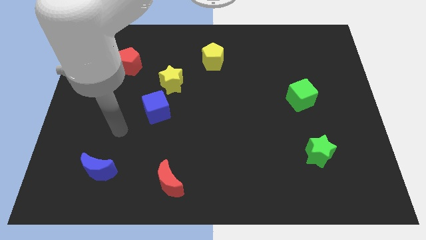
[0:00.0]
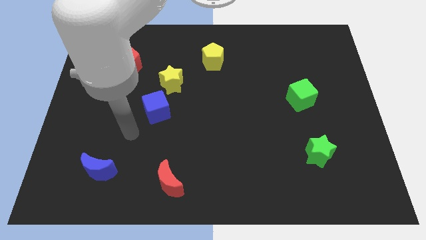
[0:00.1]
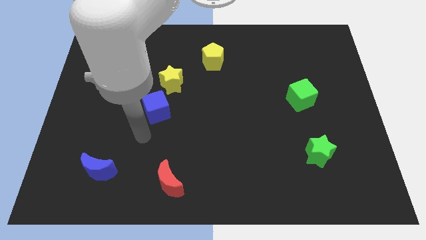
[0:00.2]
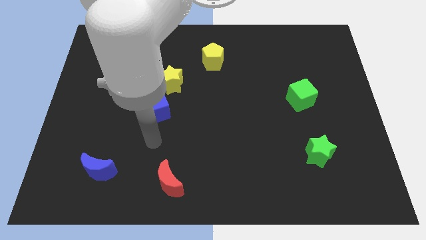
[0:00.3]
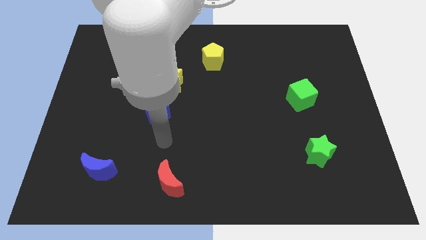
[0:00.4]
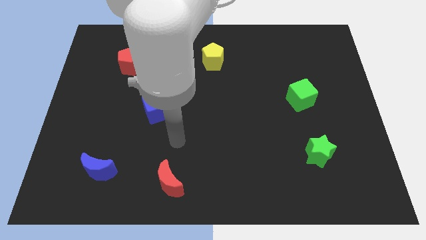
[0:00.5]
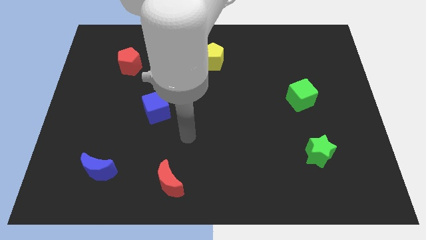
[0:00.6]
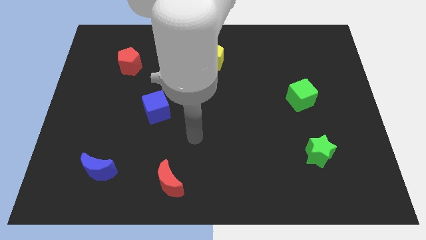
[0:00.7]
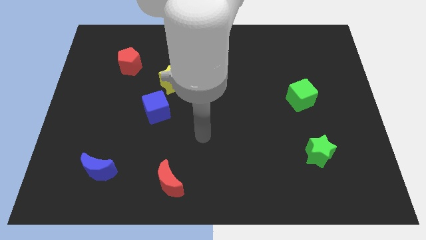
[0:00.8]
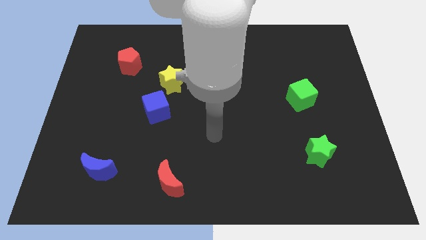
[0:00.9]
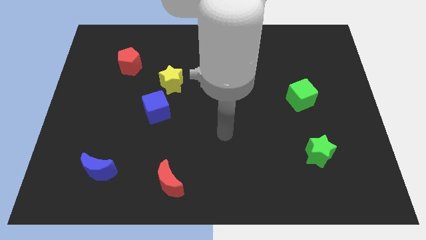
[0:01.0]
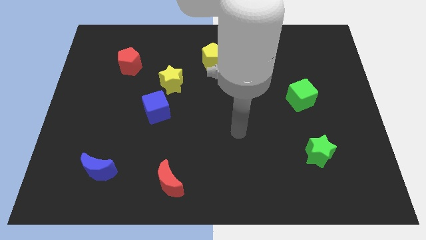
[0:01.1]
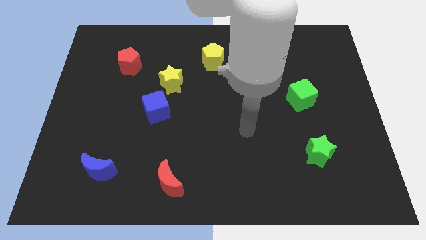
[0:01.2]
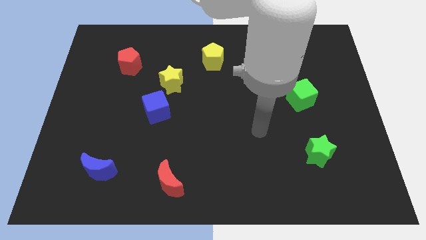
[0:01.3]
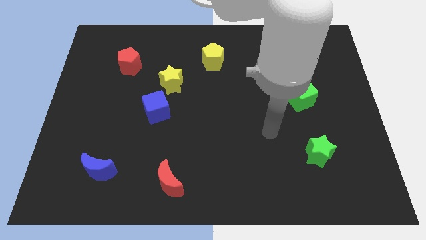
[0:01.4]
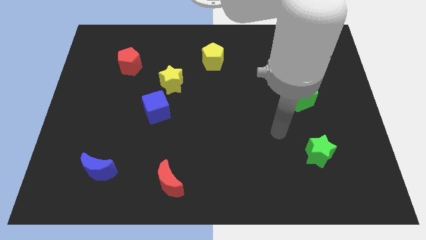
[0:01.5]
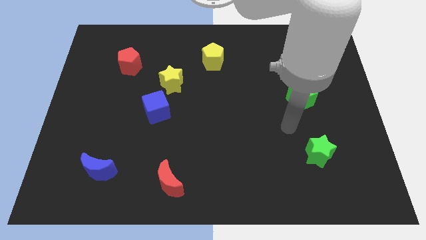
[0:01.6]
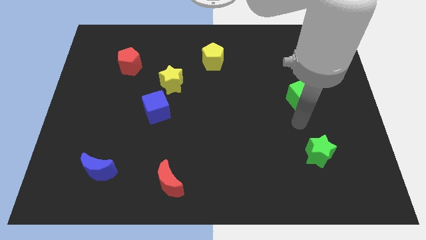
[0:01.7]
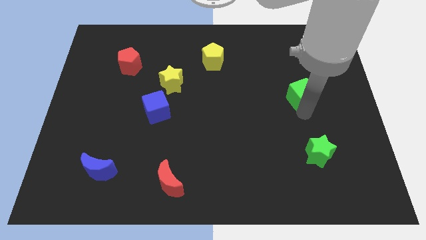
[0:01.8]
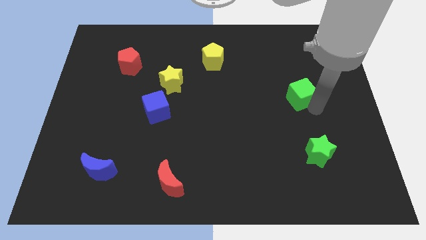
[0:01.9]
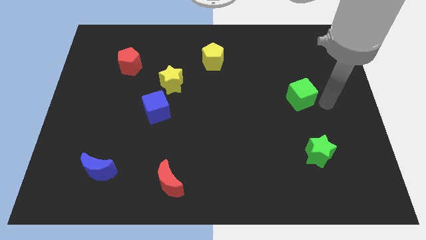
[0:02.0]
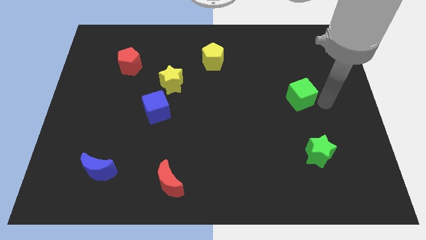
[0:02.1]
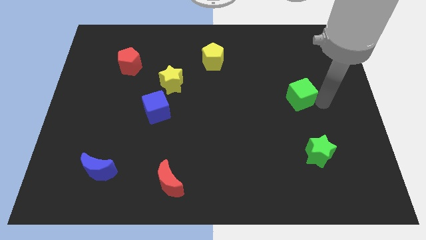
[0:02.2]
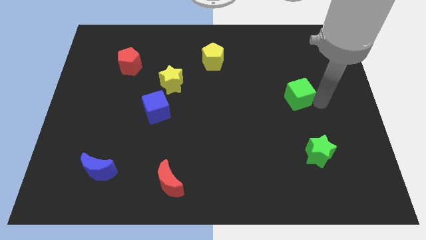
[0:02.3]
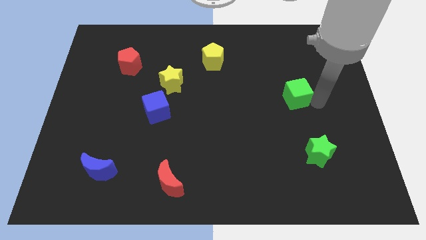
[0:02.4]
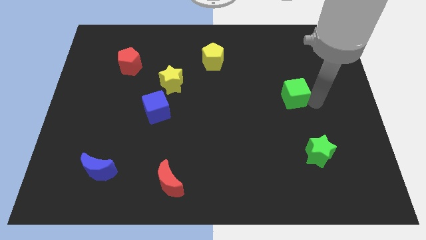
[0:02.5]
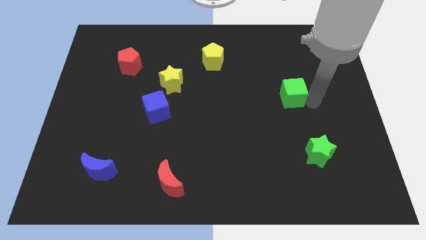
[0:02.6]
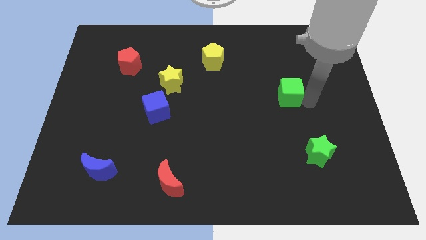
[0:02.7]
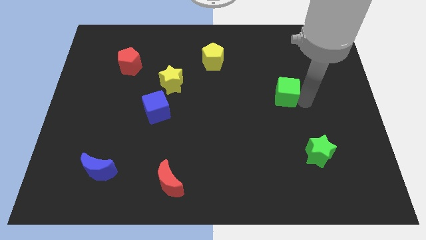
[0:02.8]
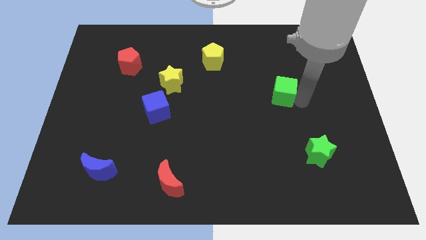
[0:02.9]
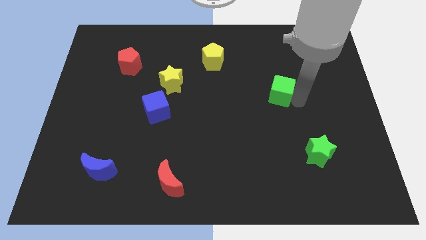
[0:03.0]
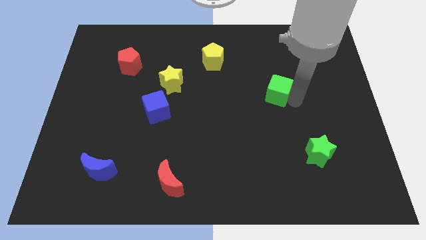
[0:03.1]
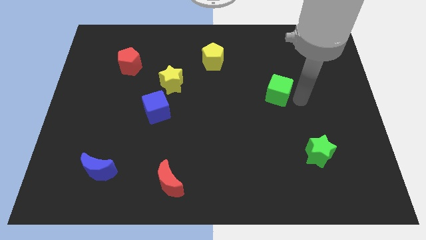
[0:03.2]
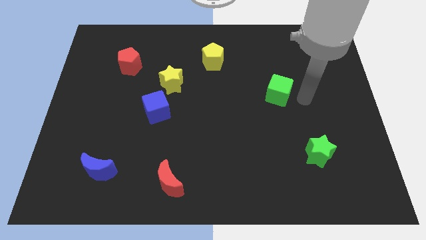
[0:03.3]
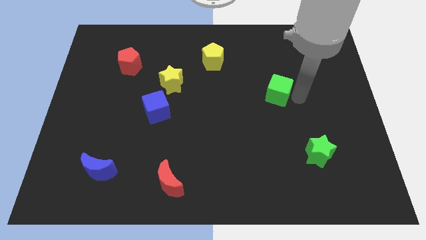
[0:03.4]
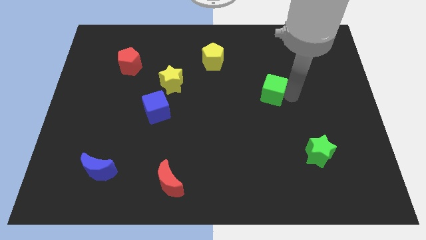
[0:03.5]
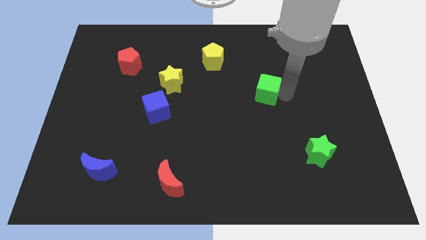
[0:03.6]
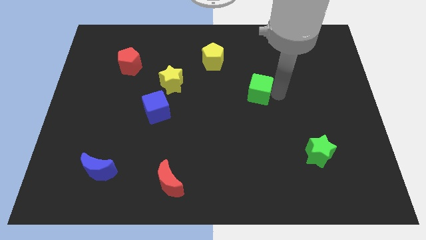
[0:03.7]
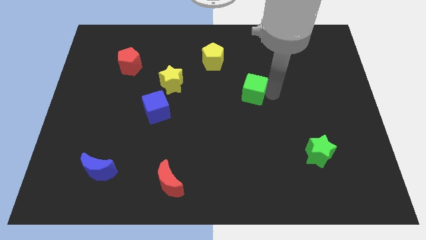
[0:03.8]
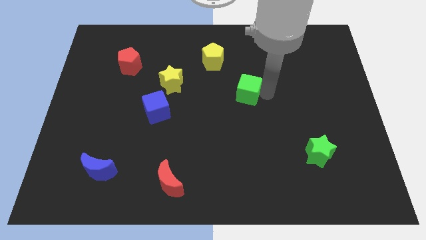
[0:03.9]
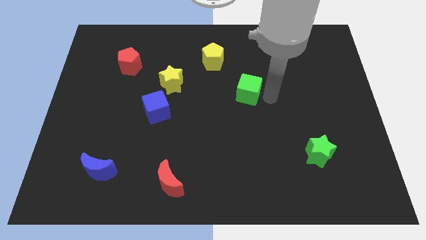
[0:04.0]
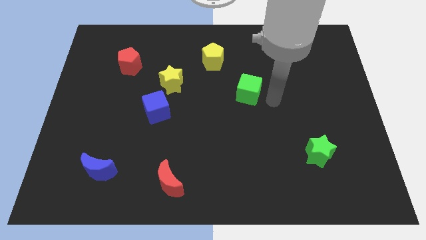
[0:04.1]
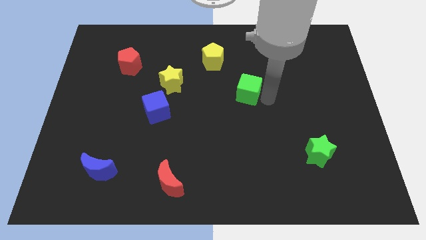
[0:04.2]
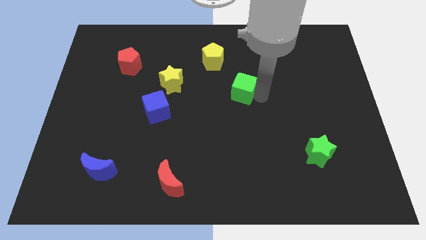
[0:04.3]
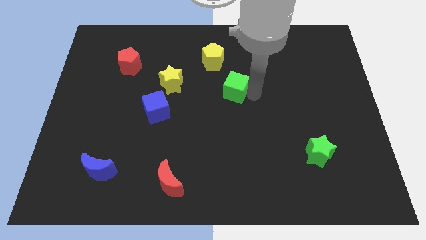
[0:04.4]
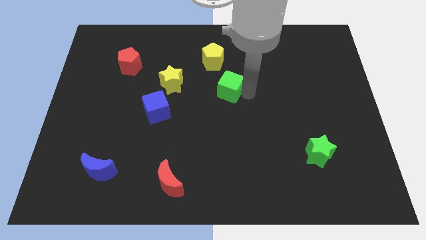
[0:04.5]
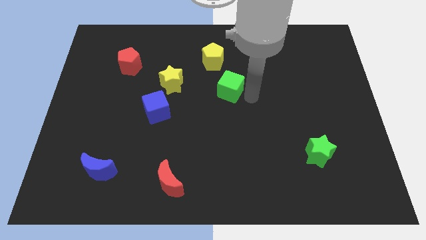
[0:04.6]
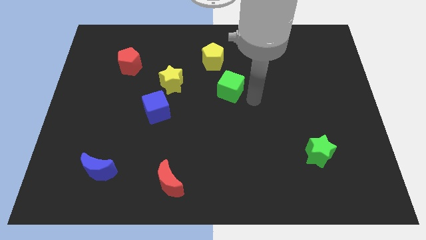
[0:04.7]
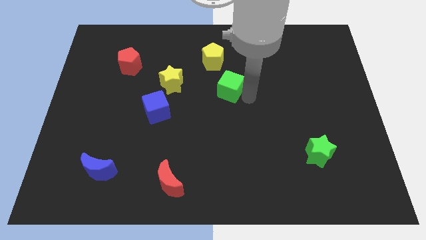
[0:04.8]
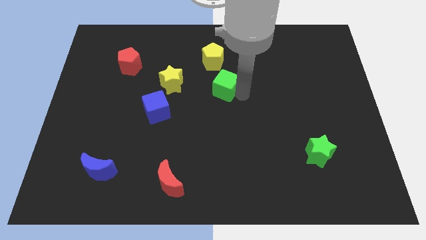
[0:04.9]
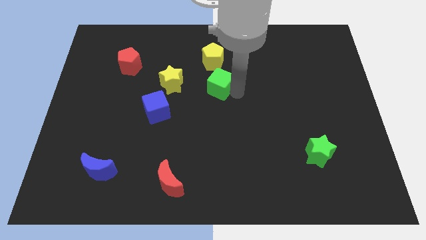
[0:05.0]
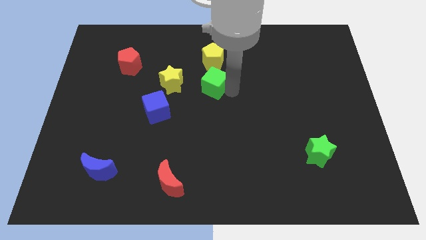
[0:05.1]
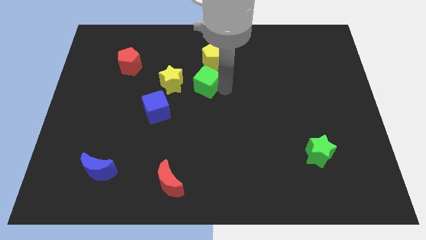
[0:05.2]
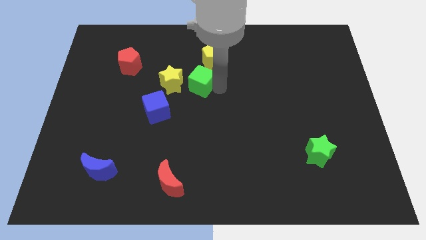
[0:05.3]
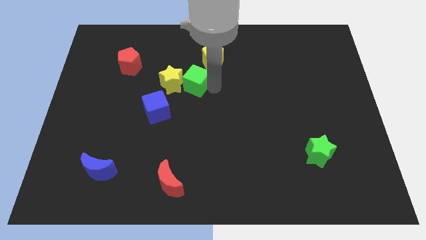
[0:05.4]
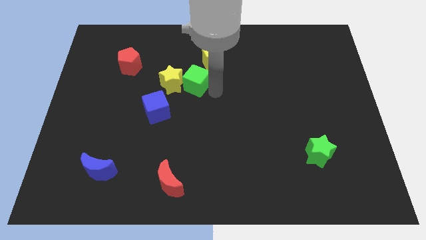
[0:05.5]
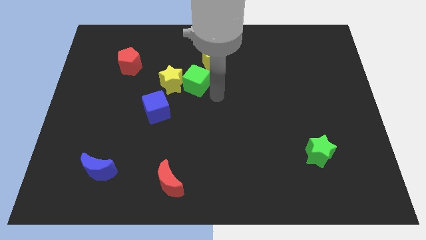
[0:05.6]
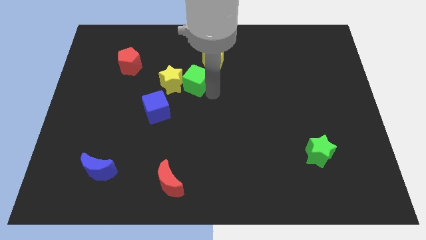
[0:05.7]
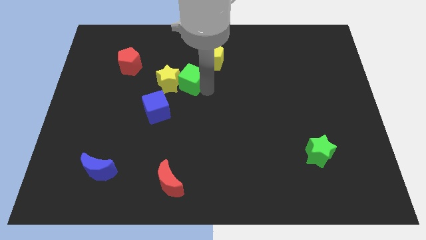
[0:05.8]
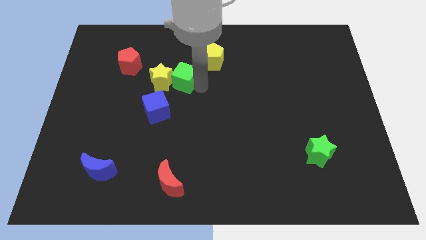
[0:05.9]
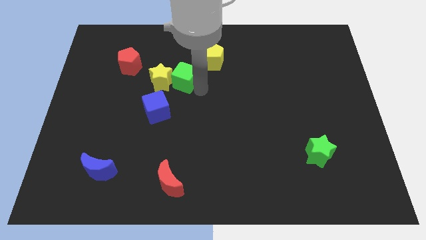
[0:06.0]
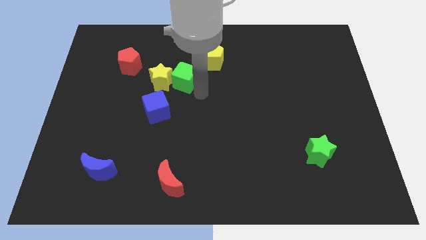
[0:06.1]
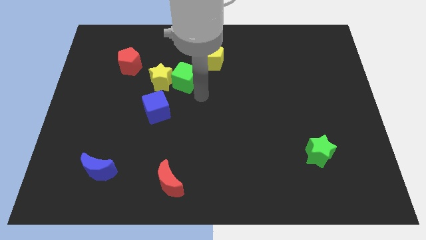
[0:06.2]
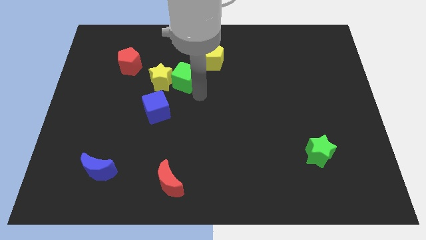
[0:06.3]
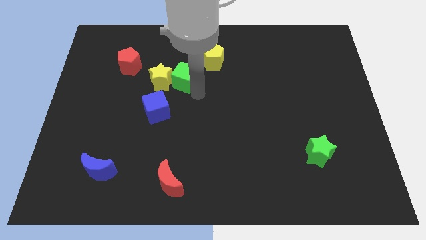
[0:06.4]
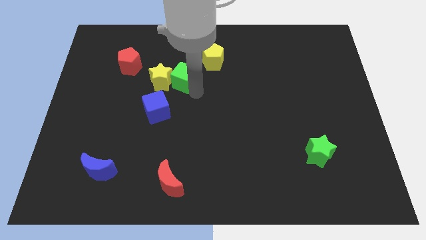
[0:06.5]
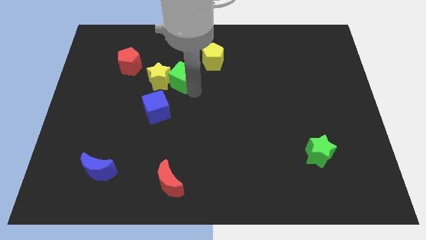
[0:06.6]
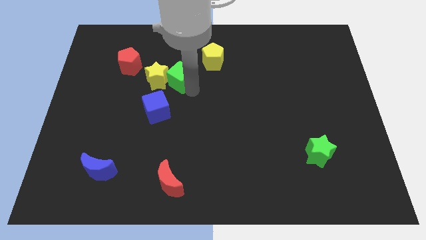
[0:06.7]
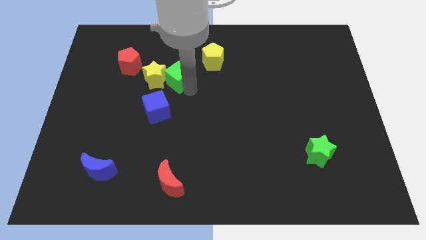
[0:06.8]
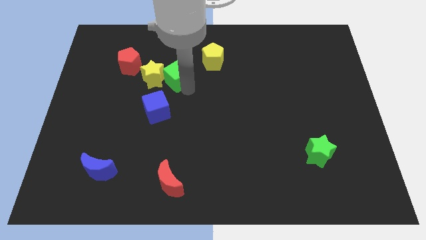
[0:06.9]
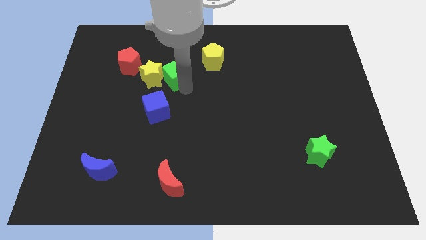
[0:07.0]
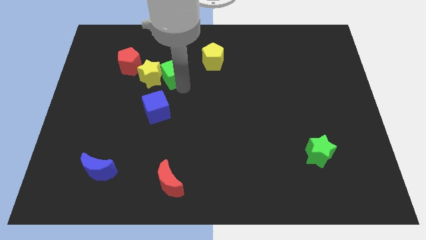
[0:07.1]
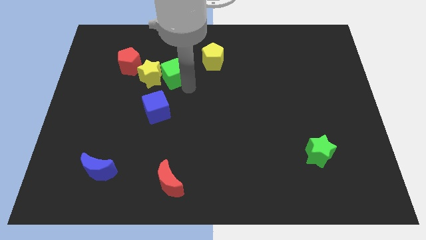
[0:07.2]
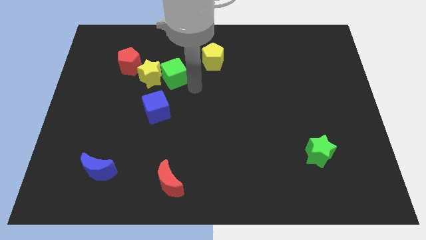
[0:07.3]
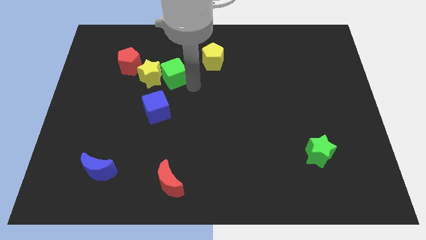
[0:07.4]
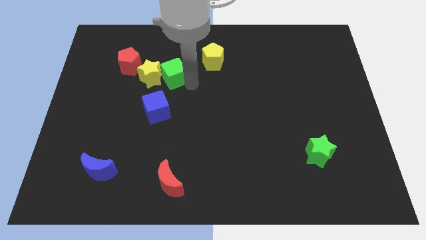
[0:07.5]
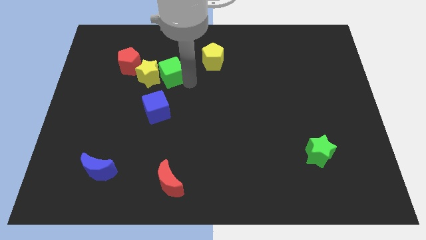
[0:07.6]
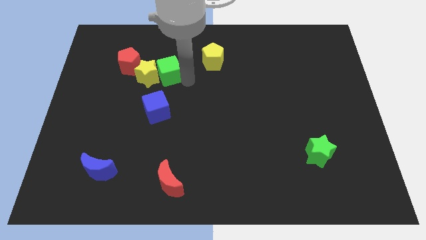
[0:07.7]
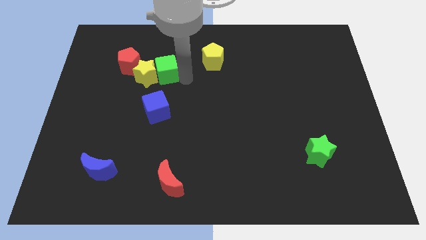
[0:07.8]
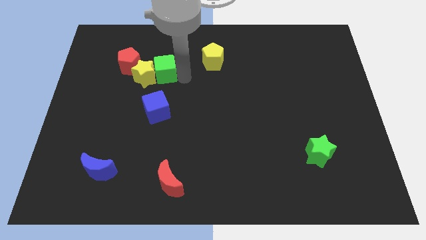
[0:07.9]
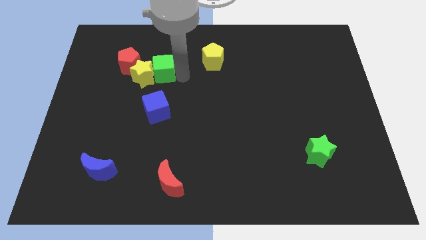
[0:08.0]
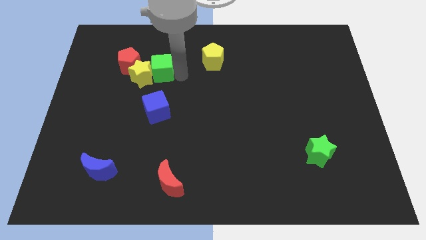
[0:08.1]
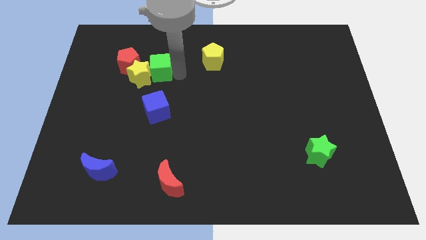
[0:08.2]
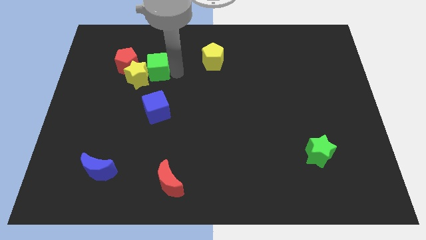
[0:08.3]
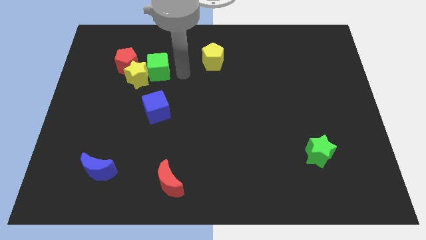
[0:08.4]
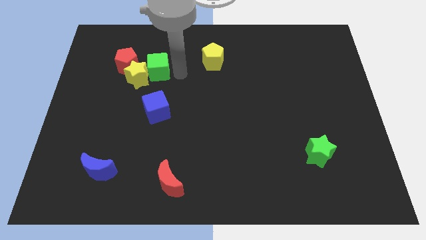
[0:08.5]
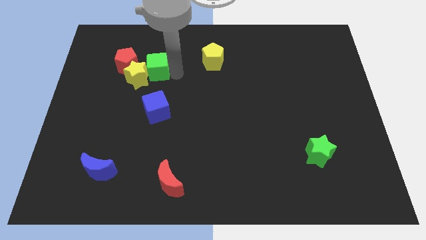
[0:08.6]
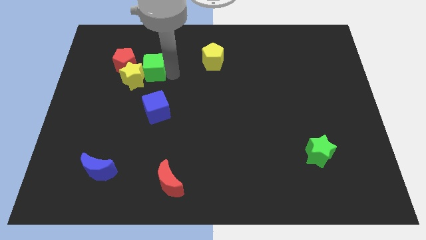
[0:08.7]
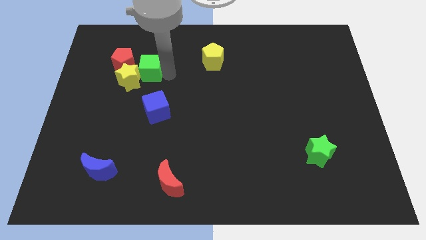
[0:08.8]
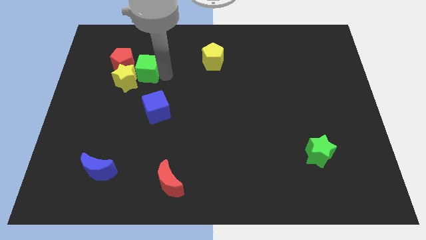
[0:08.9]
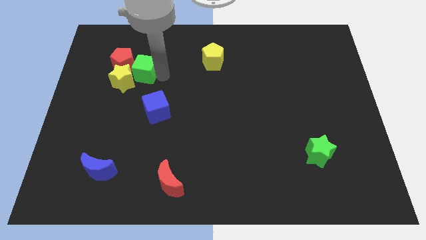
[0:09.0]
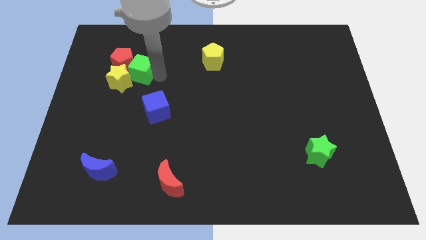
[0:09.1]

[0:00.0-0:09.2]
put the green cube towards the red pentagon
